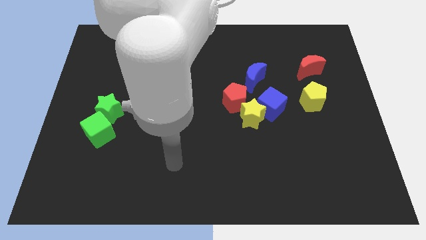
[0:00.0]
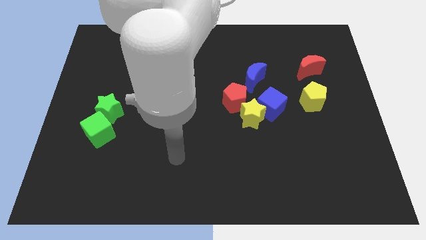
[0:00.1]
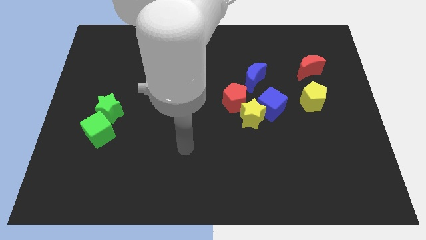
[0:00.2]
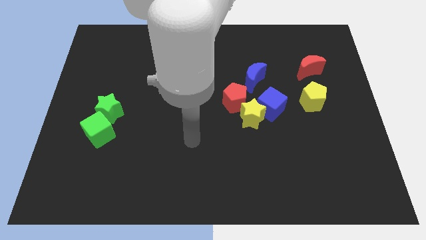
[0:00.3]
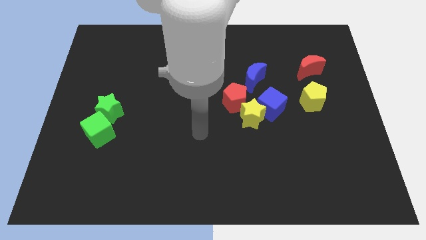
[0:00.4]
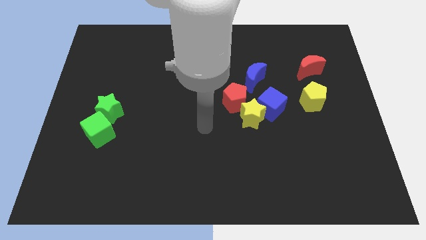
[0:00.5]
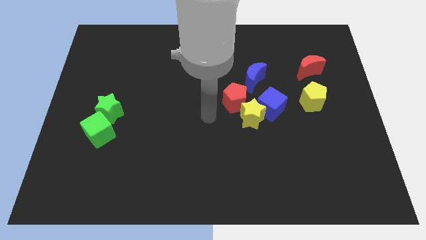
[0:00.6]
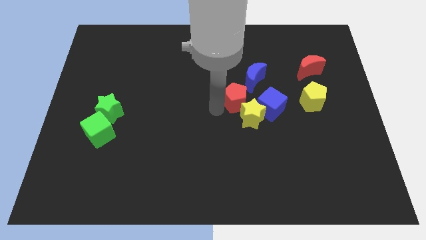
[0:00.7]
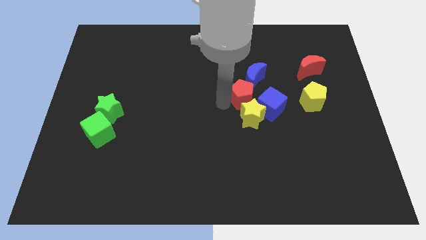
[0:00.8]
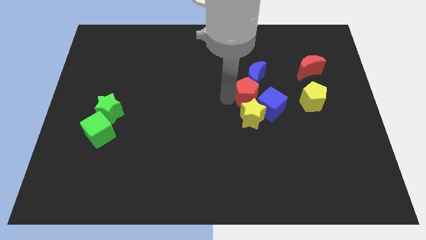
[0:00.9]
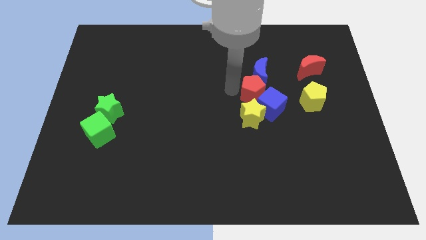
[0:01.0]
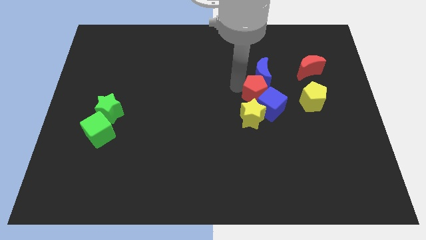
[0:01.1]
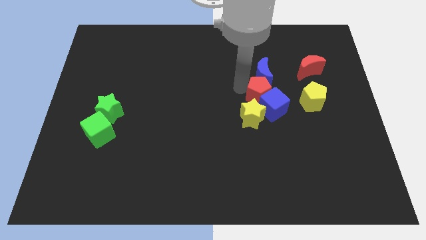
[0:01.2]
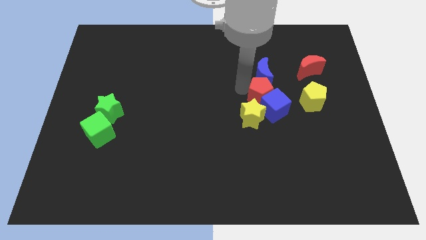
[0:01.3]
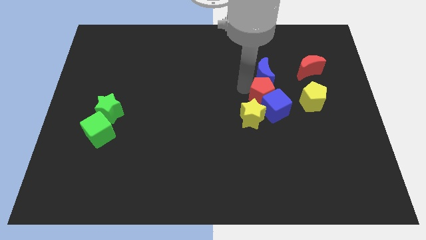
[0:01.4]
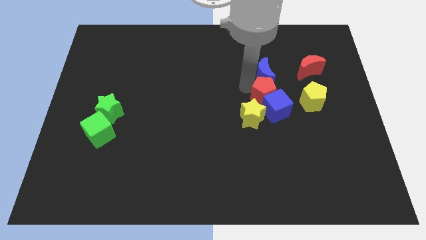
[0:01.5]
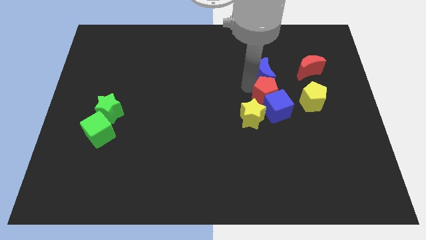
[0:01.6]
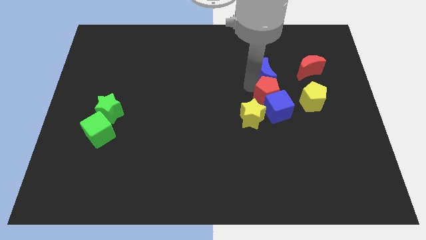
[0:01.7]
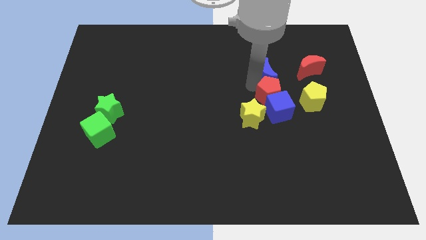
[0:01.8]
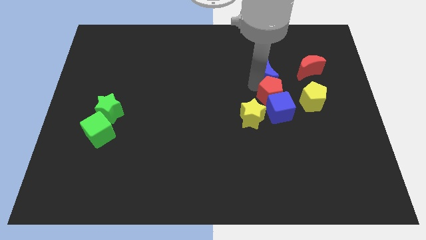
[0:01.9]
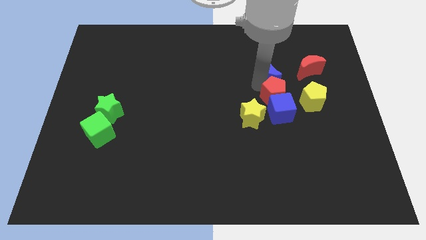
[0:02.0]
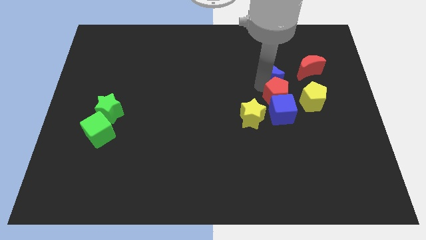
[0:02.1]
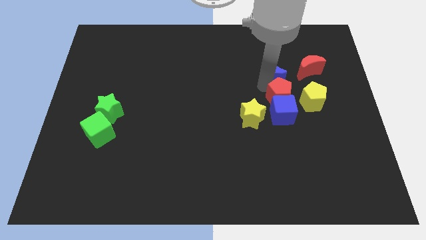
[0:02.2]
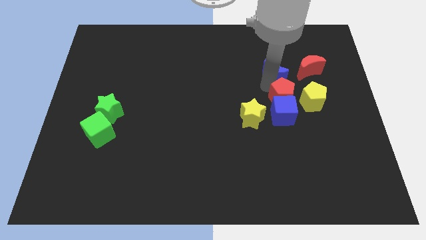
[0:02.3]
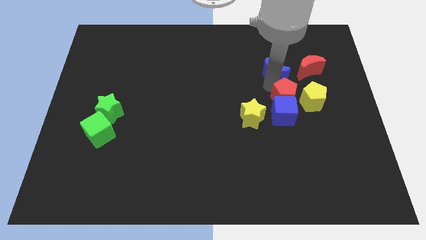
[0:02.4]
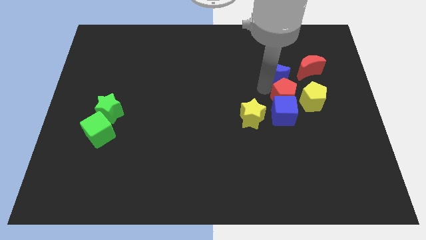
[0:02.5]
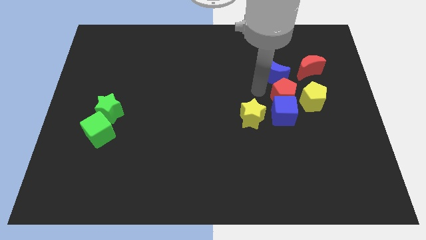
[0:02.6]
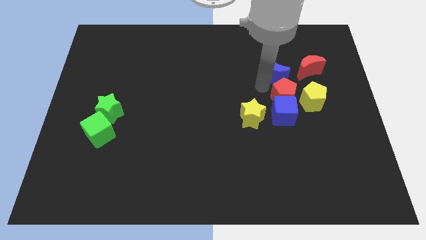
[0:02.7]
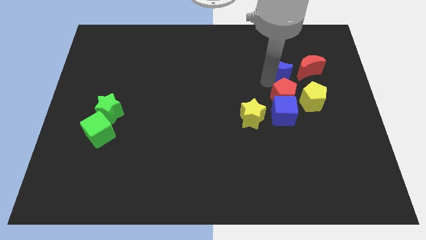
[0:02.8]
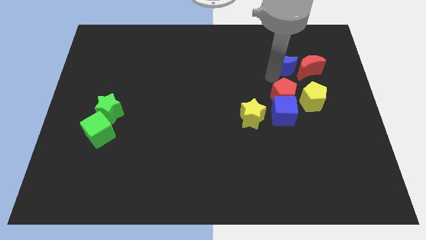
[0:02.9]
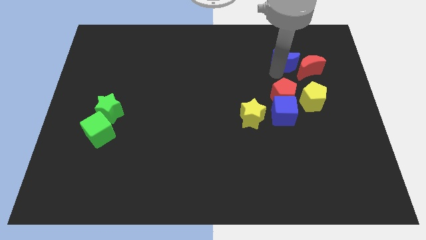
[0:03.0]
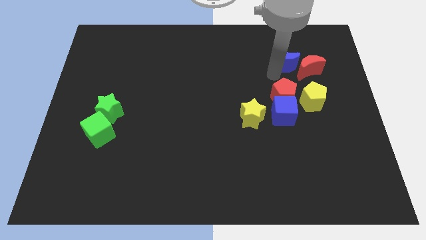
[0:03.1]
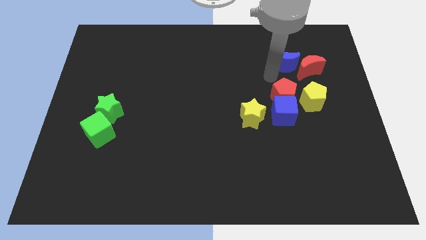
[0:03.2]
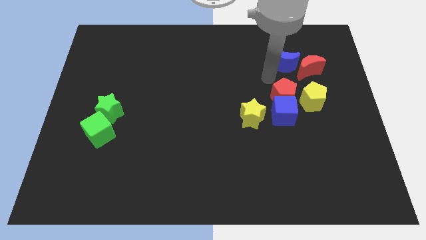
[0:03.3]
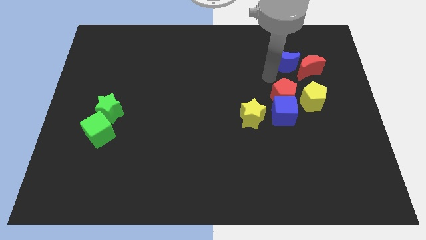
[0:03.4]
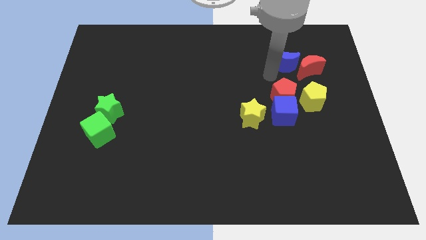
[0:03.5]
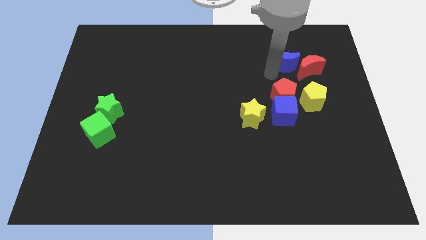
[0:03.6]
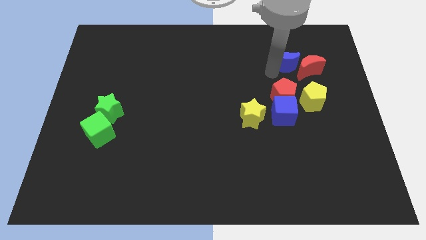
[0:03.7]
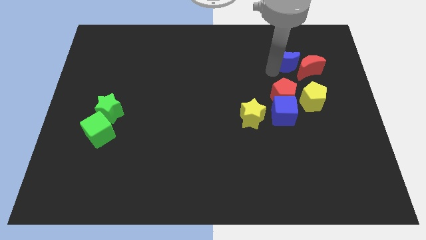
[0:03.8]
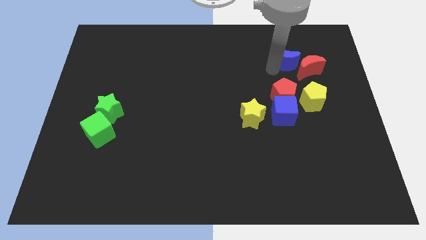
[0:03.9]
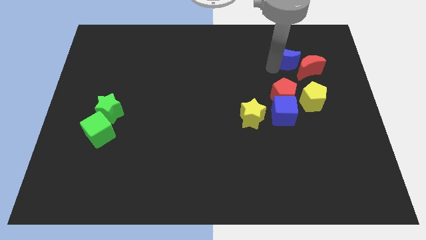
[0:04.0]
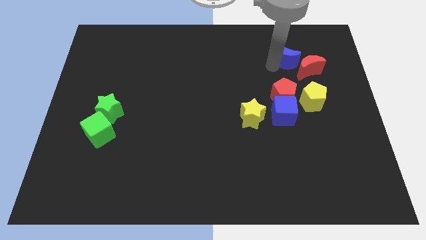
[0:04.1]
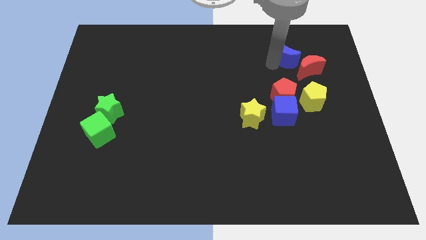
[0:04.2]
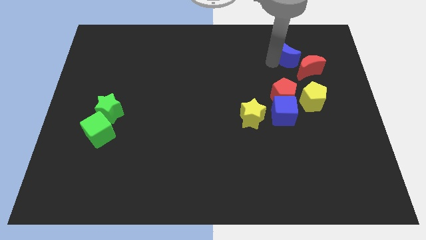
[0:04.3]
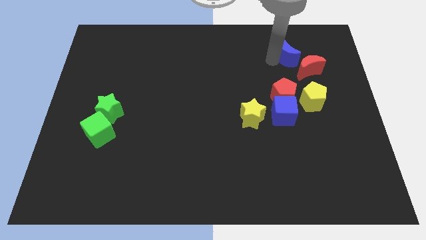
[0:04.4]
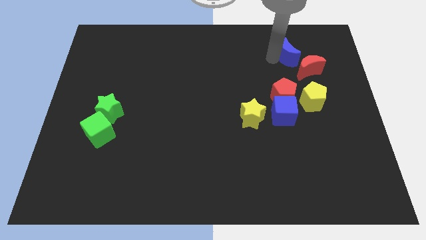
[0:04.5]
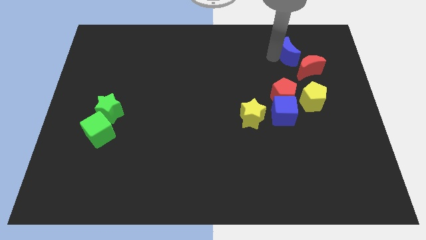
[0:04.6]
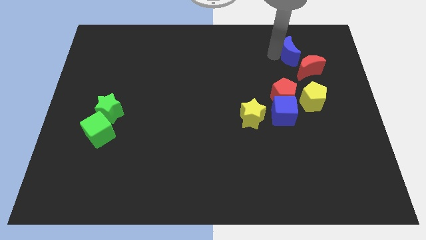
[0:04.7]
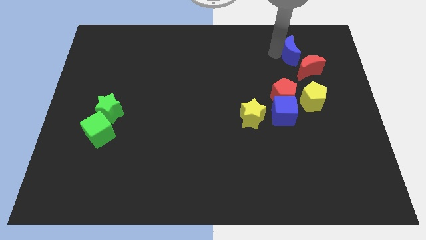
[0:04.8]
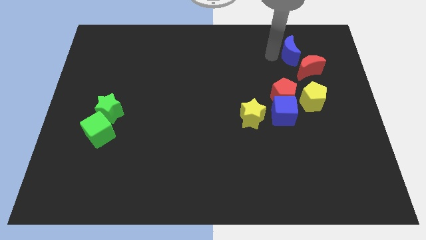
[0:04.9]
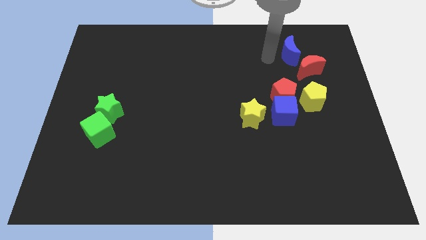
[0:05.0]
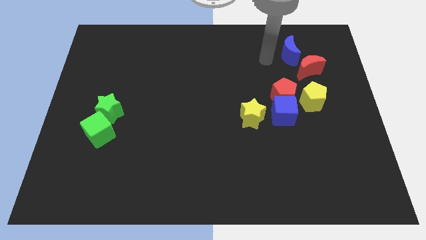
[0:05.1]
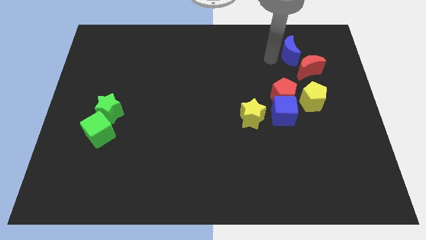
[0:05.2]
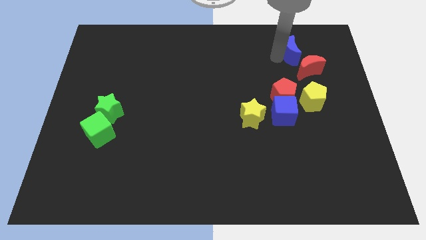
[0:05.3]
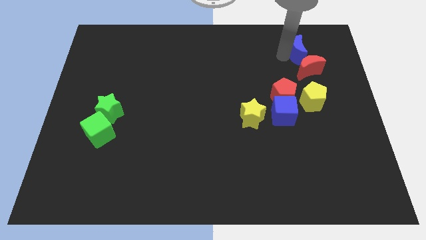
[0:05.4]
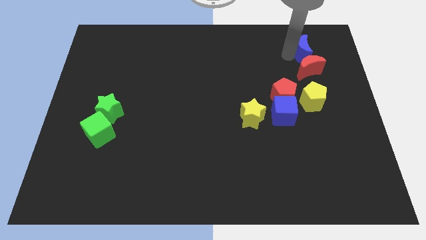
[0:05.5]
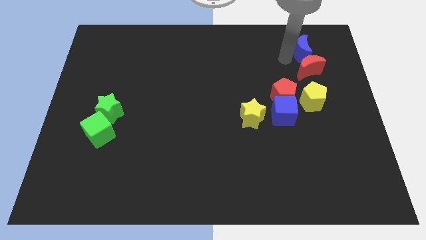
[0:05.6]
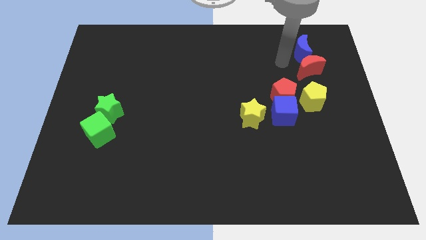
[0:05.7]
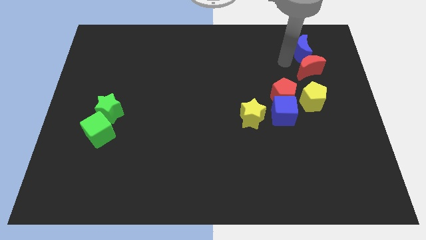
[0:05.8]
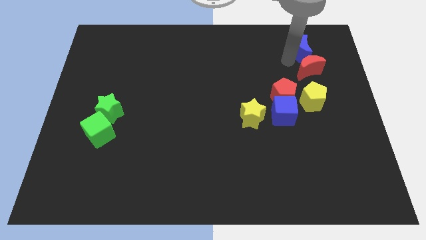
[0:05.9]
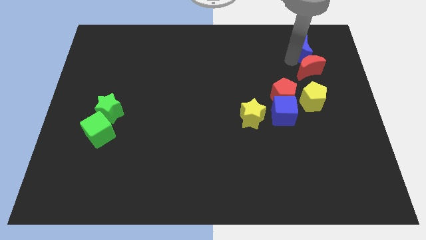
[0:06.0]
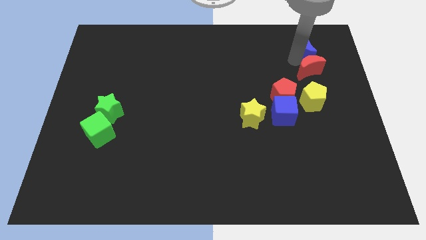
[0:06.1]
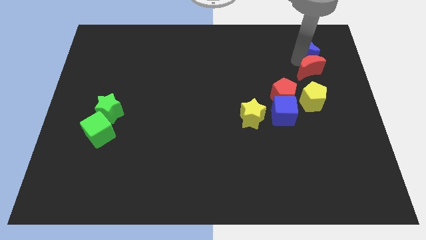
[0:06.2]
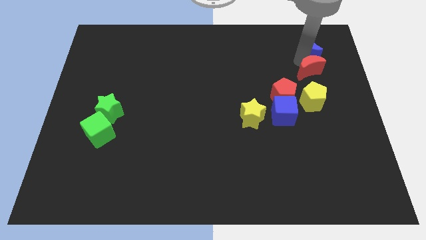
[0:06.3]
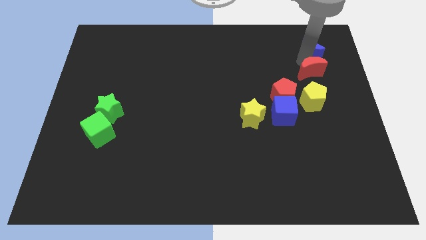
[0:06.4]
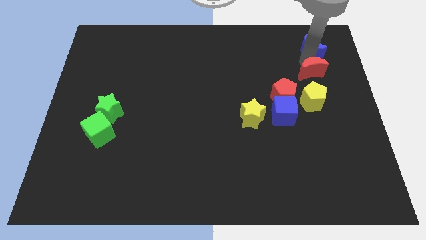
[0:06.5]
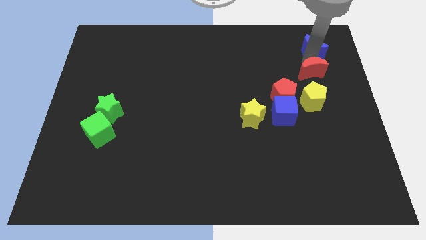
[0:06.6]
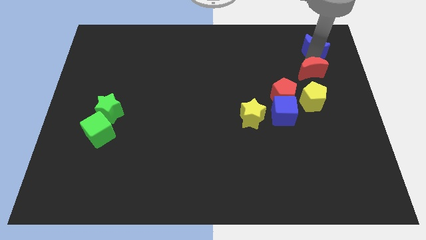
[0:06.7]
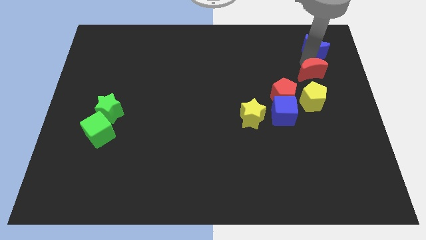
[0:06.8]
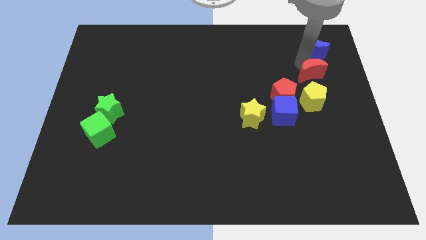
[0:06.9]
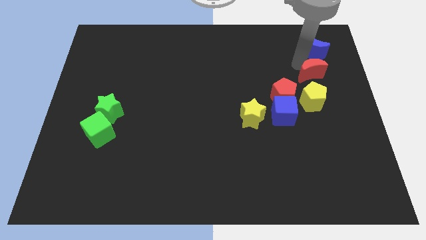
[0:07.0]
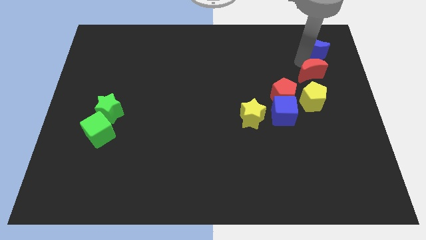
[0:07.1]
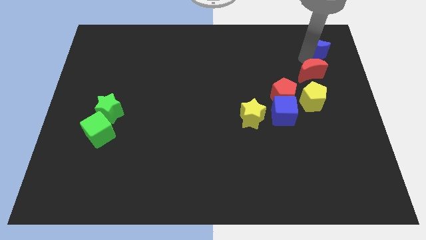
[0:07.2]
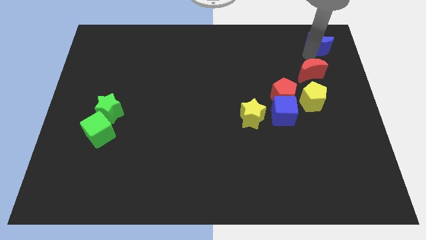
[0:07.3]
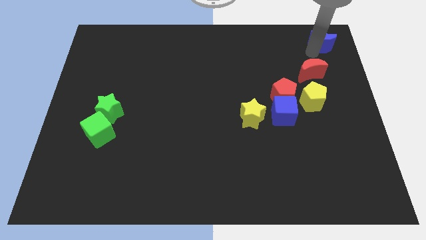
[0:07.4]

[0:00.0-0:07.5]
move the blue moon to the top right of the board

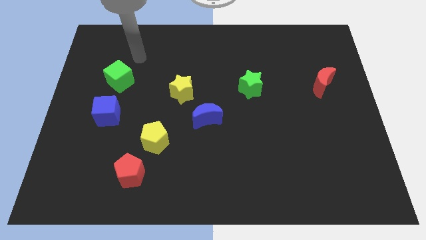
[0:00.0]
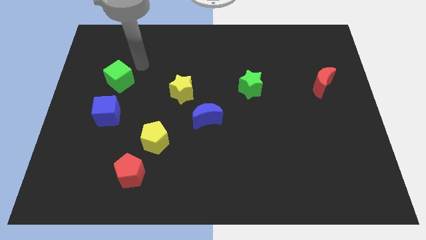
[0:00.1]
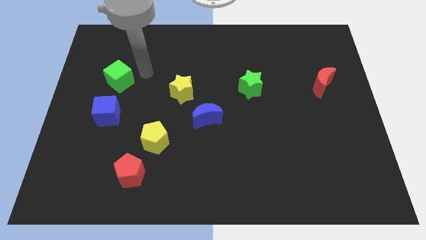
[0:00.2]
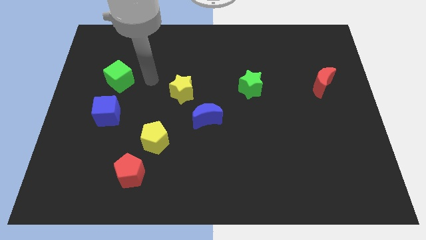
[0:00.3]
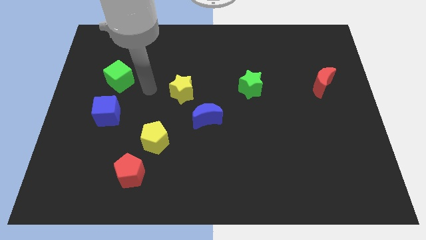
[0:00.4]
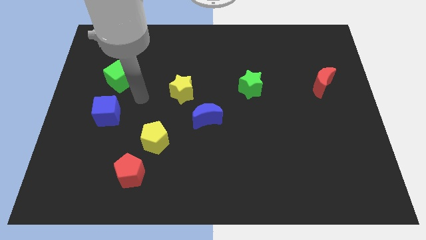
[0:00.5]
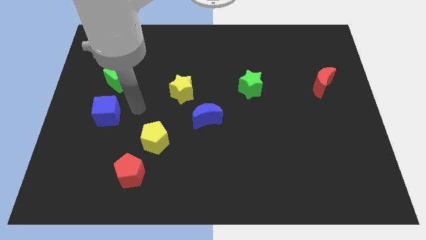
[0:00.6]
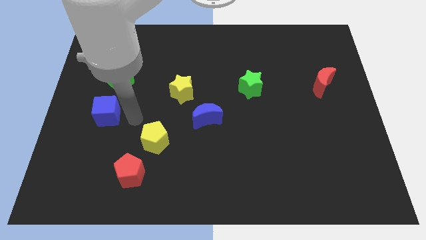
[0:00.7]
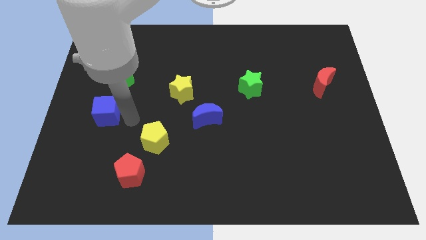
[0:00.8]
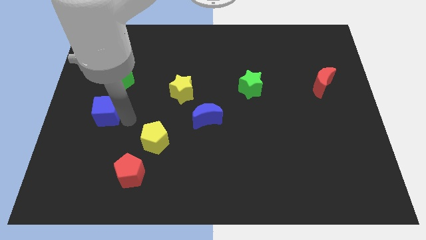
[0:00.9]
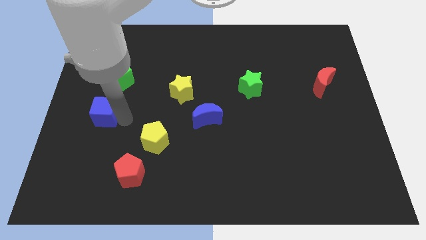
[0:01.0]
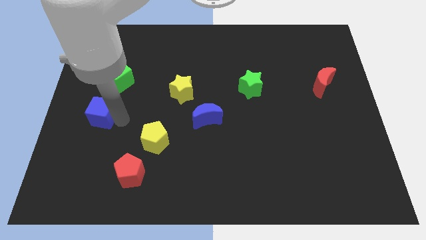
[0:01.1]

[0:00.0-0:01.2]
slide the blue cube to the center left
